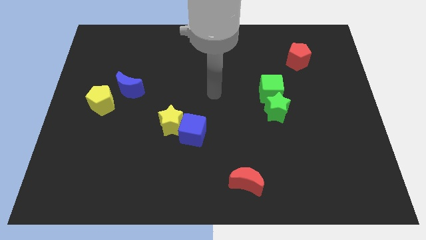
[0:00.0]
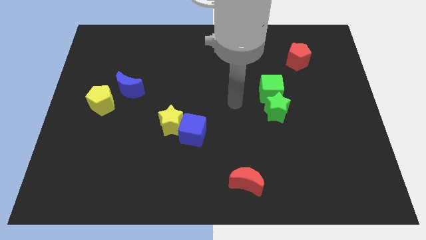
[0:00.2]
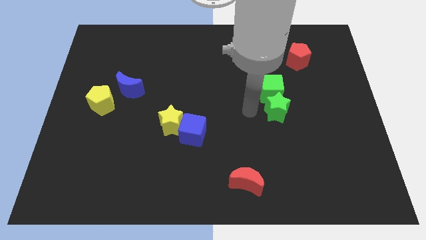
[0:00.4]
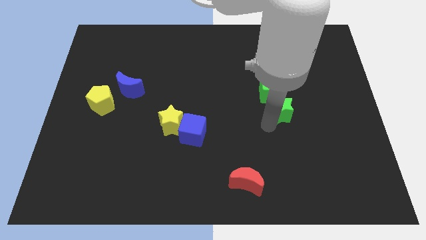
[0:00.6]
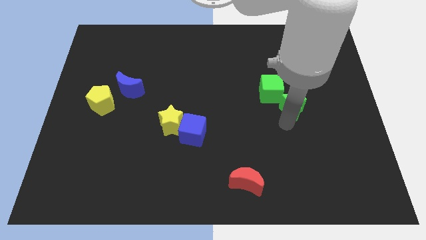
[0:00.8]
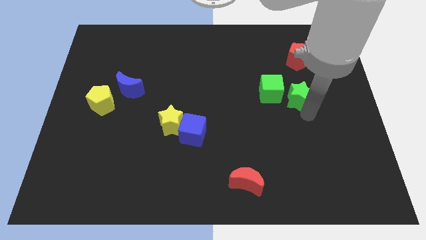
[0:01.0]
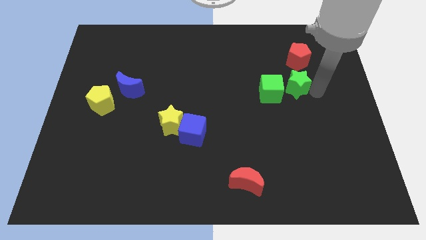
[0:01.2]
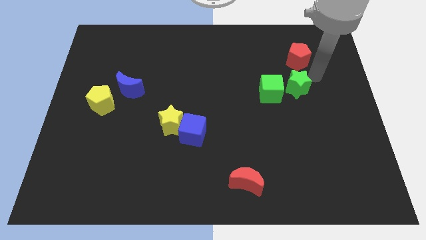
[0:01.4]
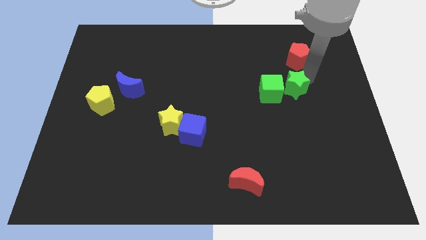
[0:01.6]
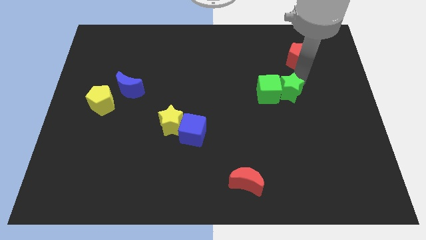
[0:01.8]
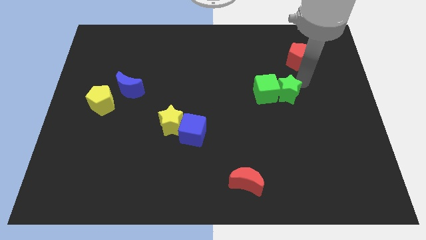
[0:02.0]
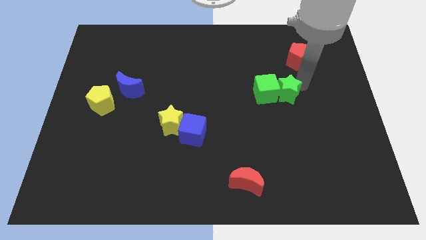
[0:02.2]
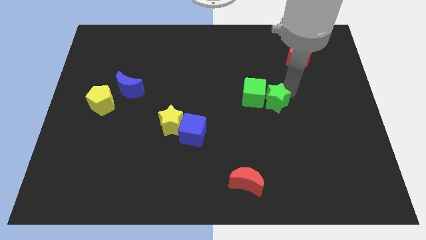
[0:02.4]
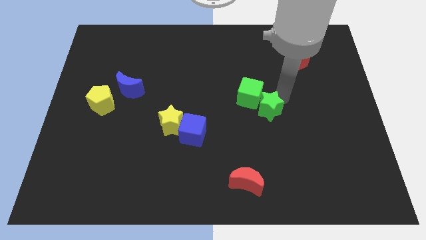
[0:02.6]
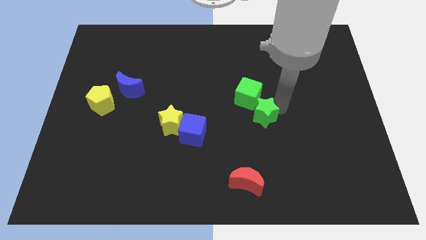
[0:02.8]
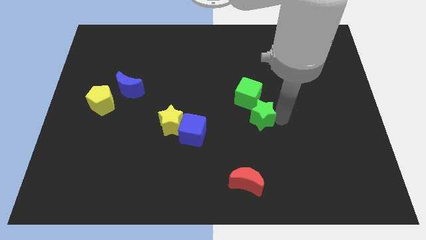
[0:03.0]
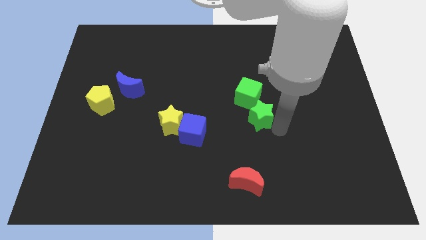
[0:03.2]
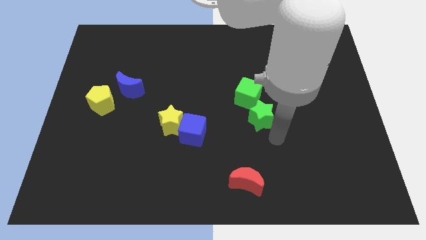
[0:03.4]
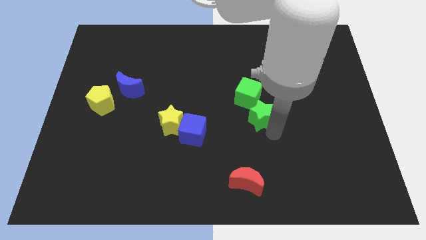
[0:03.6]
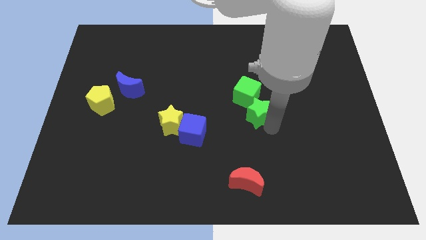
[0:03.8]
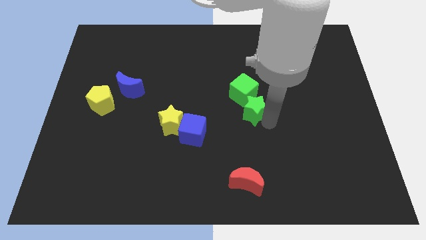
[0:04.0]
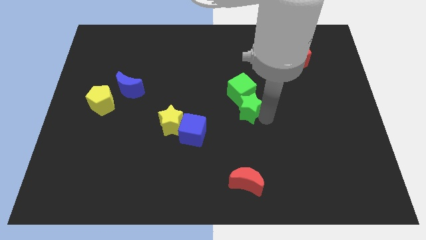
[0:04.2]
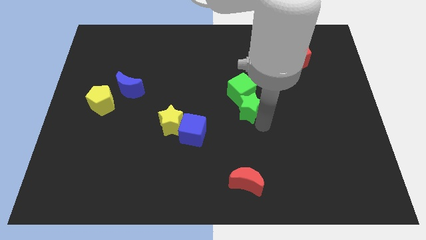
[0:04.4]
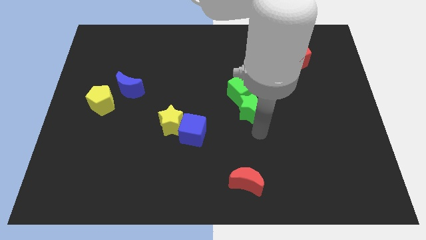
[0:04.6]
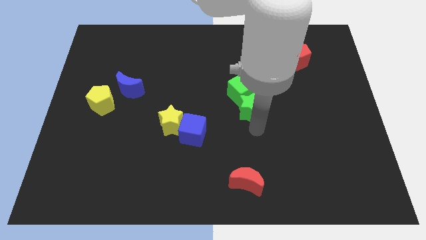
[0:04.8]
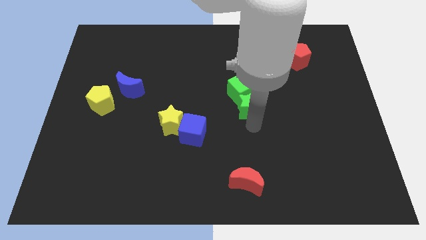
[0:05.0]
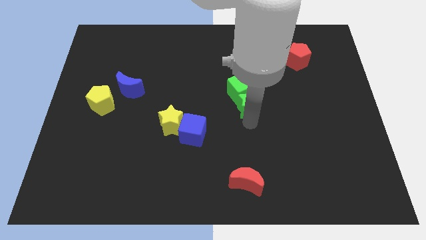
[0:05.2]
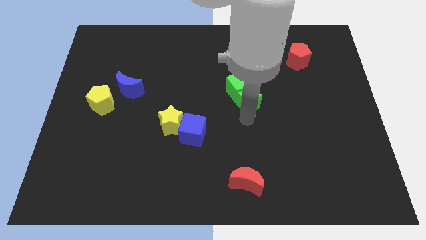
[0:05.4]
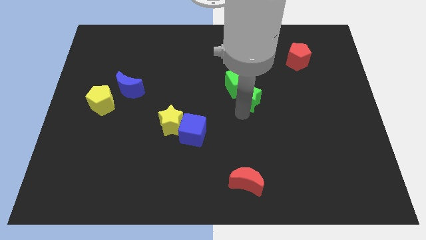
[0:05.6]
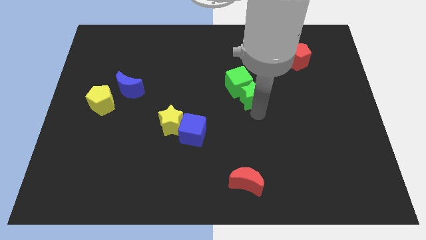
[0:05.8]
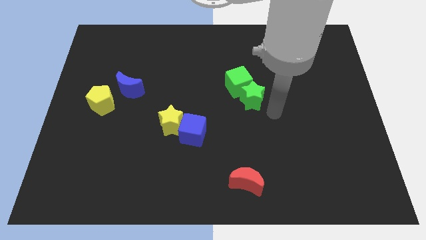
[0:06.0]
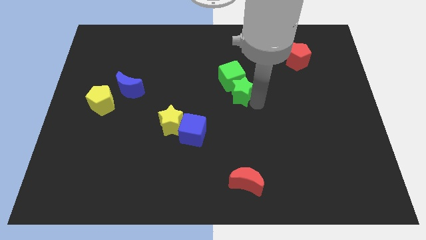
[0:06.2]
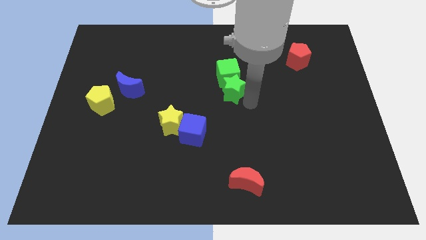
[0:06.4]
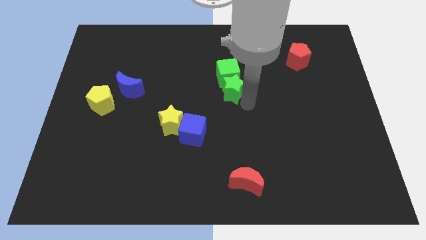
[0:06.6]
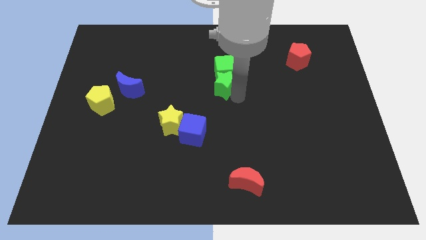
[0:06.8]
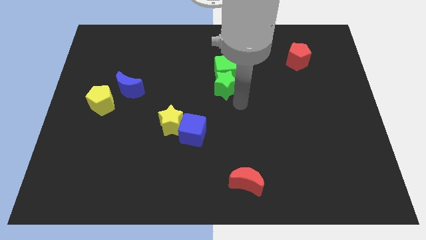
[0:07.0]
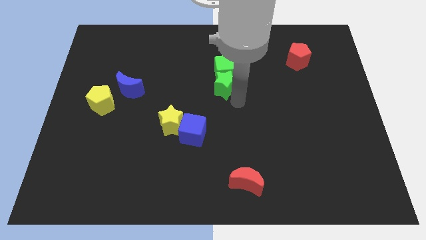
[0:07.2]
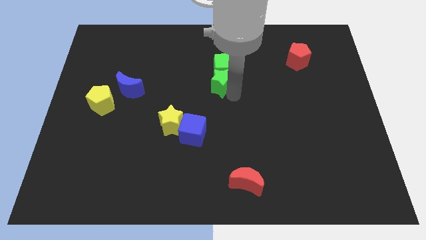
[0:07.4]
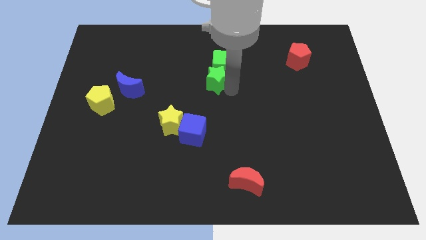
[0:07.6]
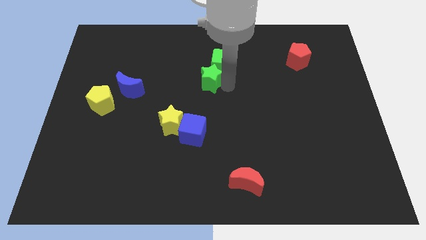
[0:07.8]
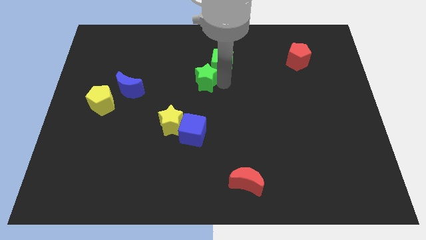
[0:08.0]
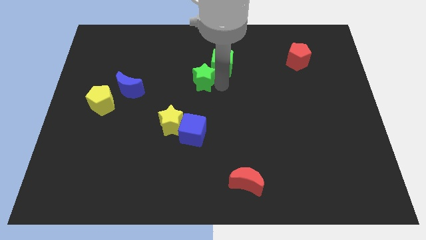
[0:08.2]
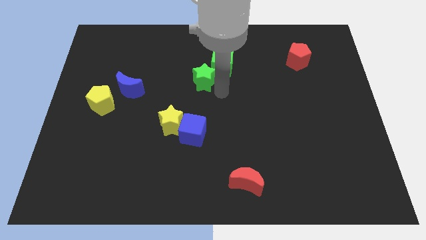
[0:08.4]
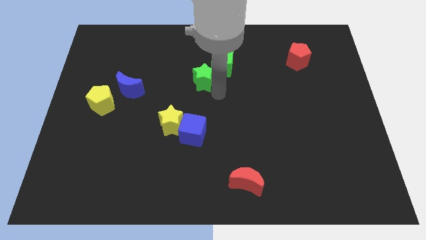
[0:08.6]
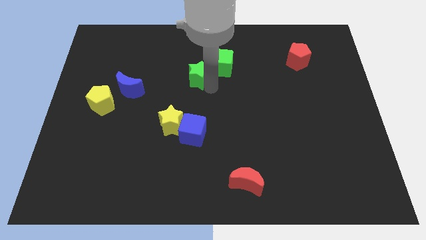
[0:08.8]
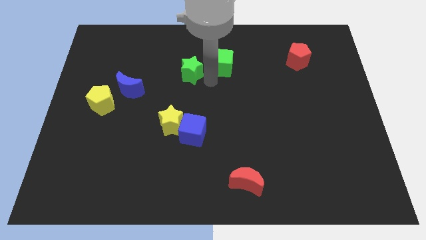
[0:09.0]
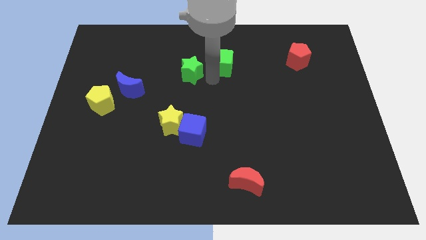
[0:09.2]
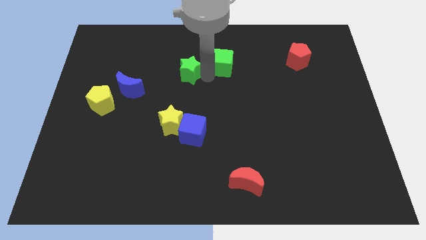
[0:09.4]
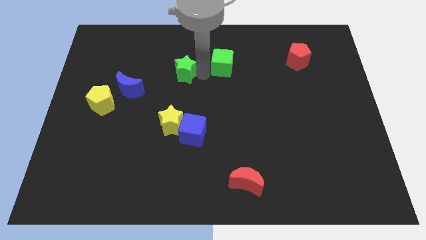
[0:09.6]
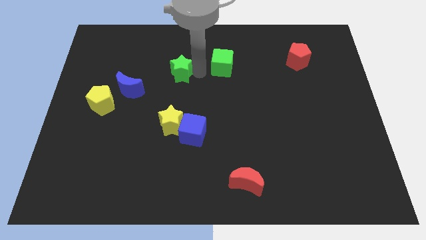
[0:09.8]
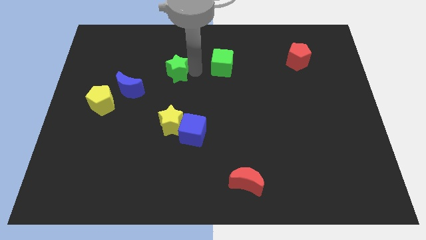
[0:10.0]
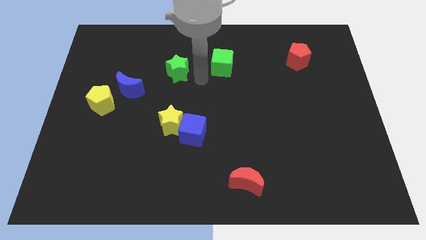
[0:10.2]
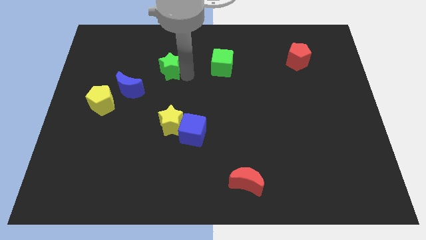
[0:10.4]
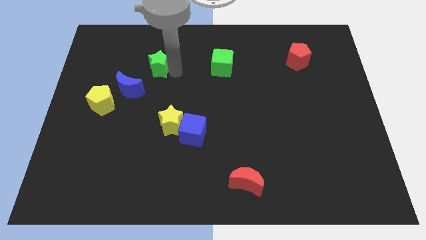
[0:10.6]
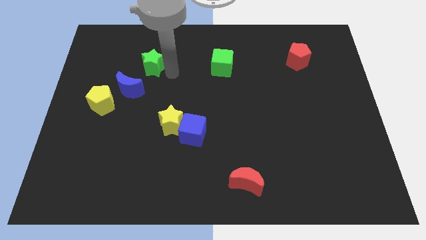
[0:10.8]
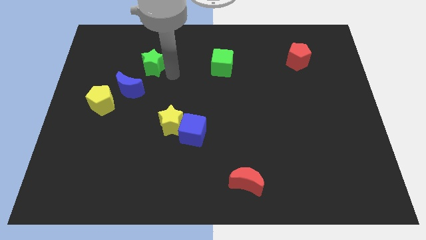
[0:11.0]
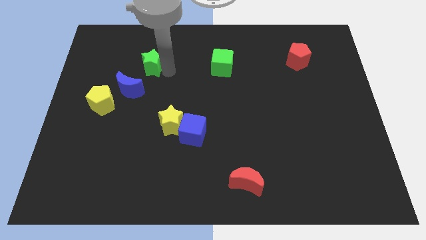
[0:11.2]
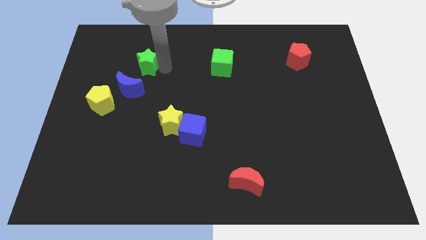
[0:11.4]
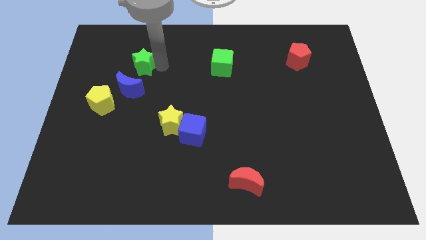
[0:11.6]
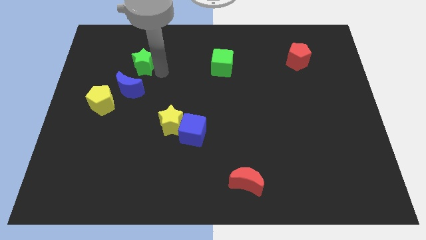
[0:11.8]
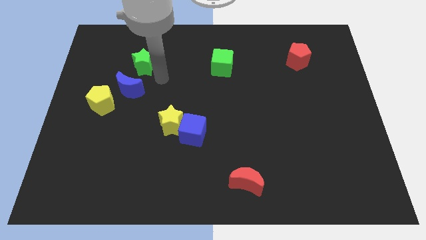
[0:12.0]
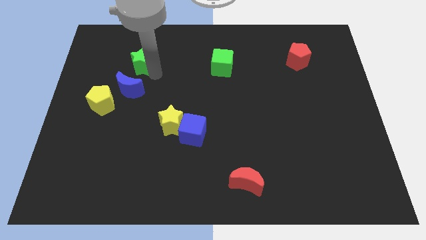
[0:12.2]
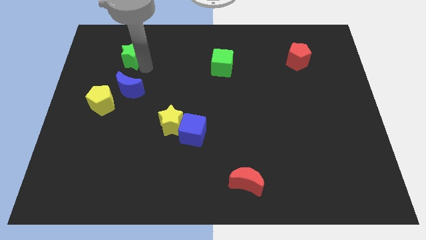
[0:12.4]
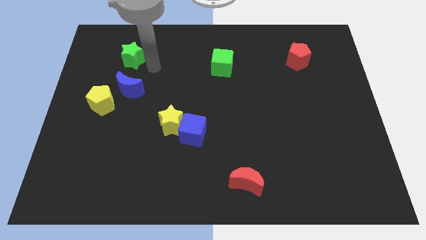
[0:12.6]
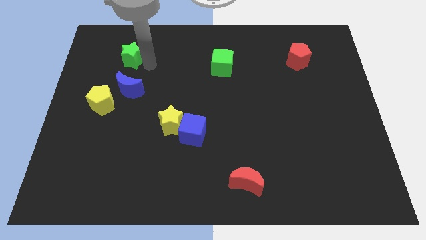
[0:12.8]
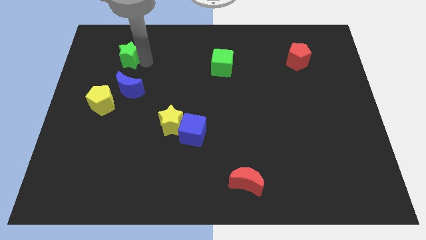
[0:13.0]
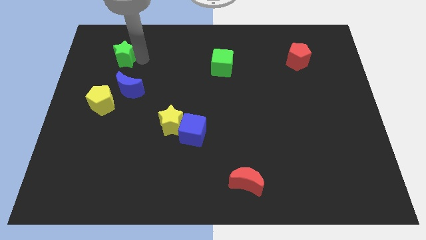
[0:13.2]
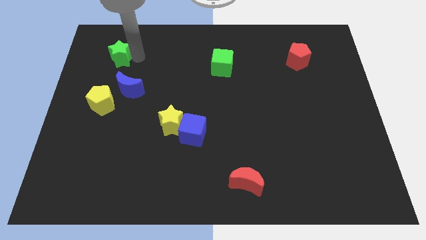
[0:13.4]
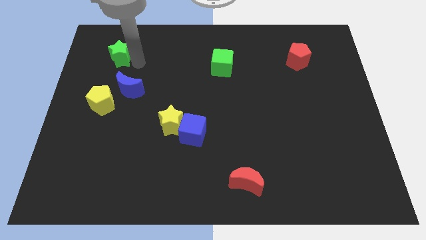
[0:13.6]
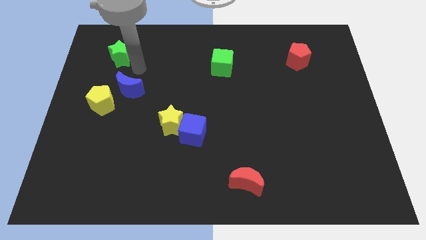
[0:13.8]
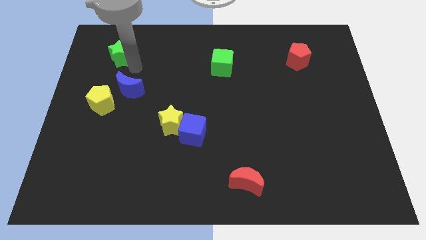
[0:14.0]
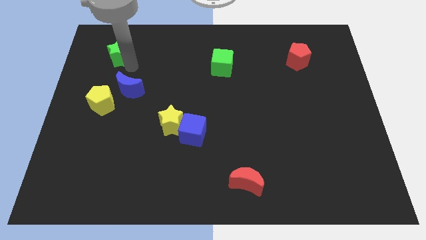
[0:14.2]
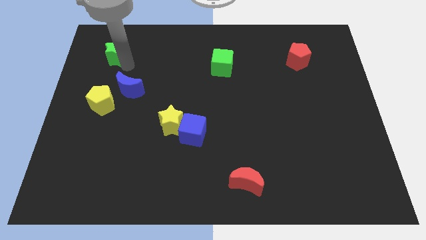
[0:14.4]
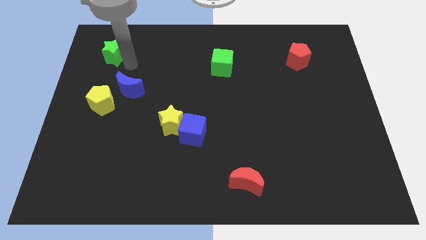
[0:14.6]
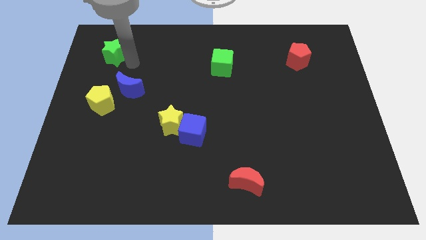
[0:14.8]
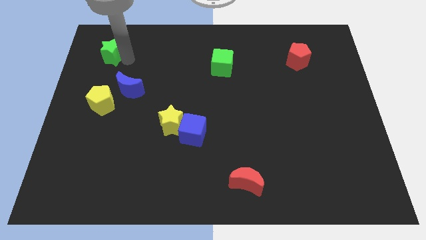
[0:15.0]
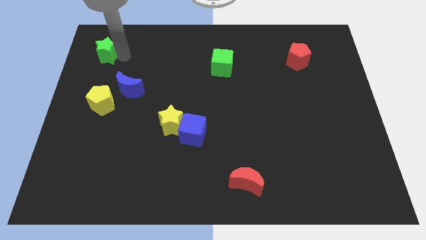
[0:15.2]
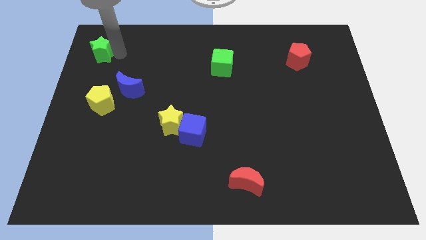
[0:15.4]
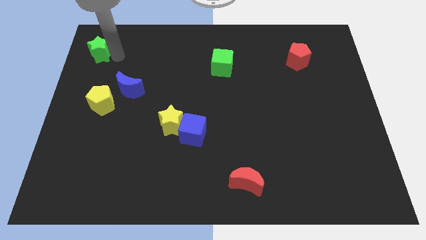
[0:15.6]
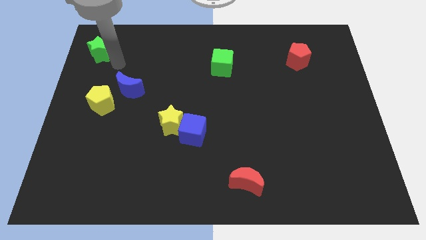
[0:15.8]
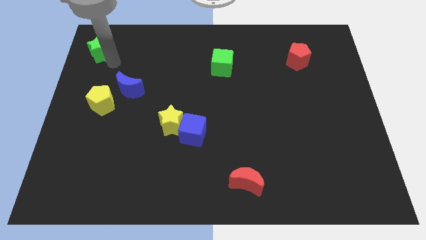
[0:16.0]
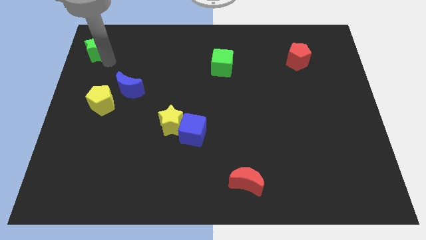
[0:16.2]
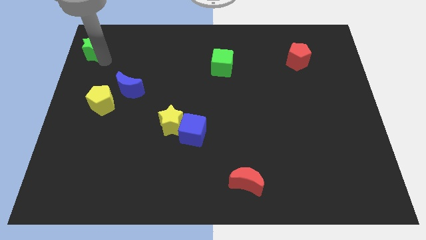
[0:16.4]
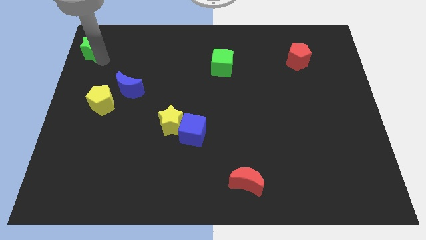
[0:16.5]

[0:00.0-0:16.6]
put the green star to the top left
